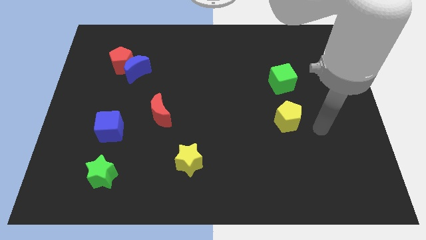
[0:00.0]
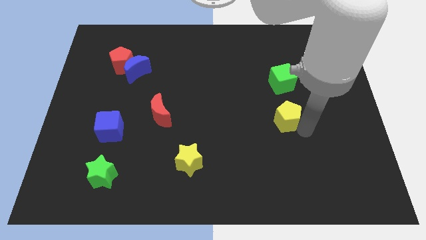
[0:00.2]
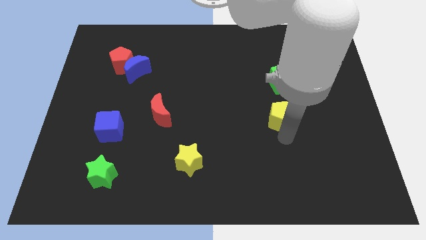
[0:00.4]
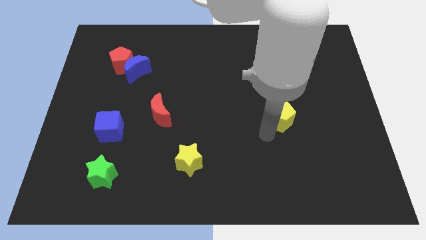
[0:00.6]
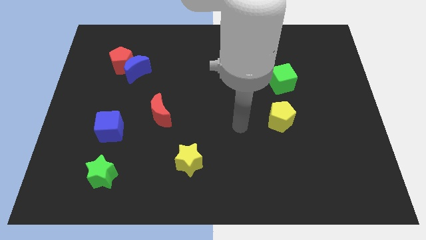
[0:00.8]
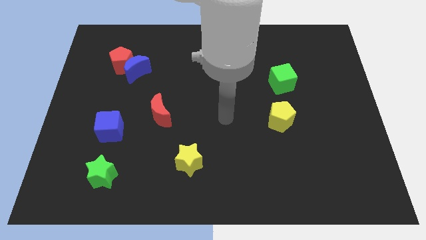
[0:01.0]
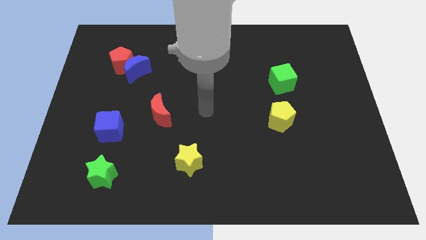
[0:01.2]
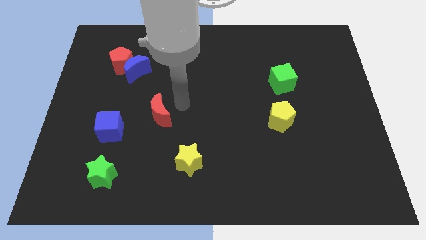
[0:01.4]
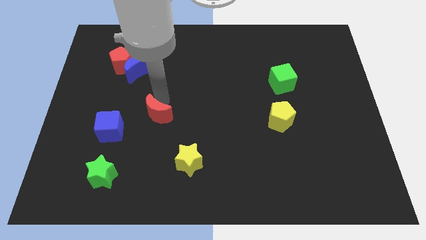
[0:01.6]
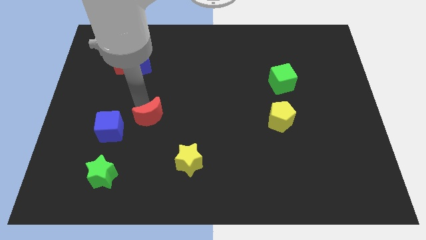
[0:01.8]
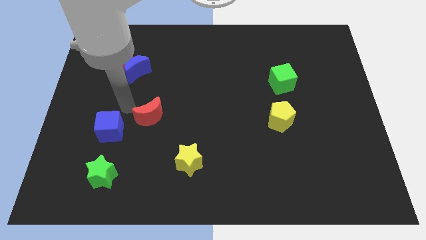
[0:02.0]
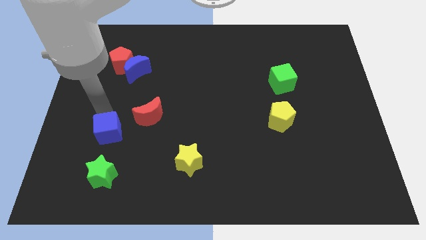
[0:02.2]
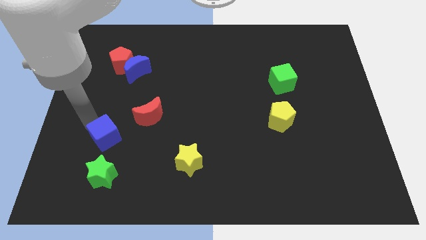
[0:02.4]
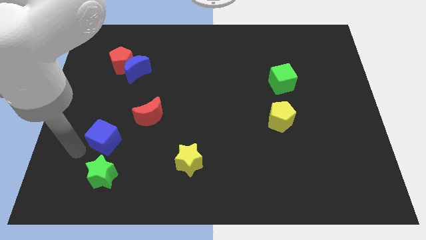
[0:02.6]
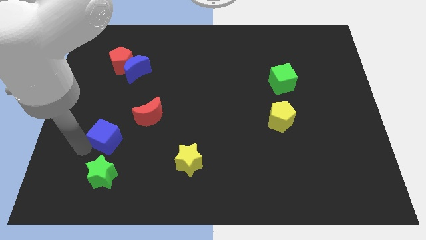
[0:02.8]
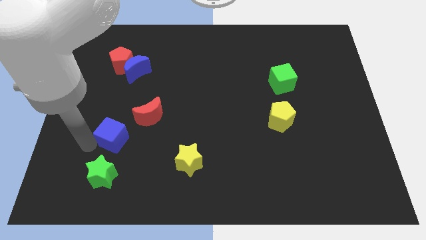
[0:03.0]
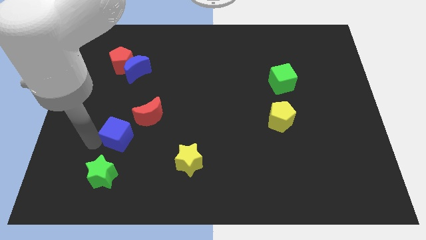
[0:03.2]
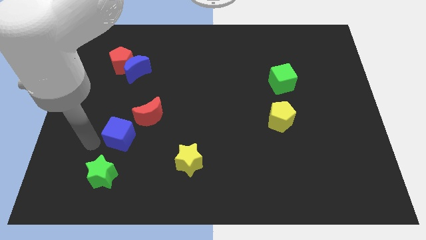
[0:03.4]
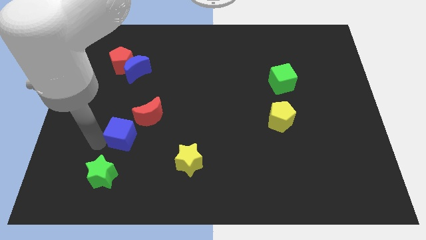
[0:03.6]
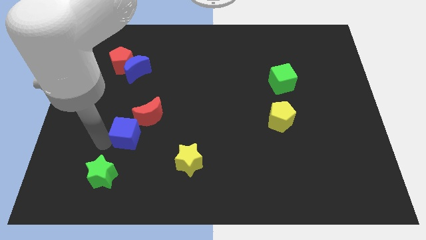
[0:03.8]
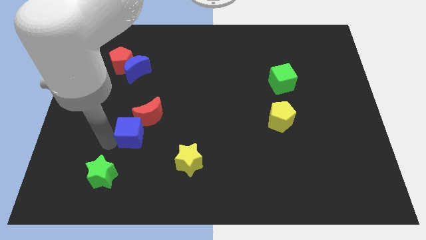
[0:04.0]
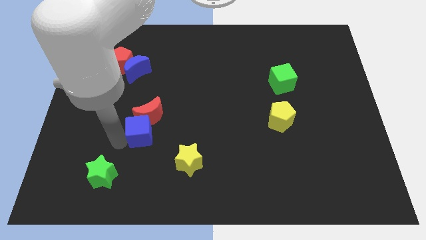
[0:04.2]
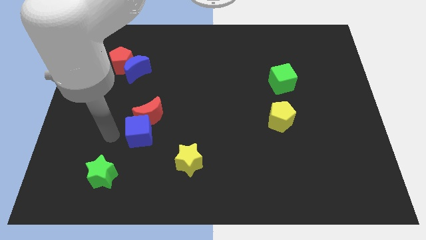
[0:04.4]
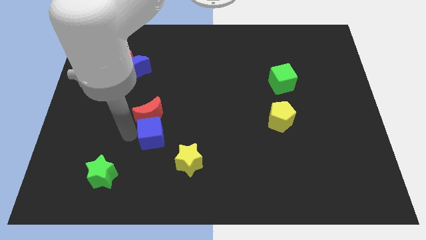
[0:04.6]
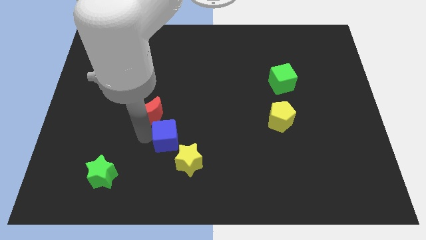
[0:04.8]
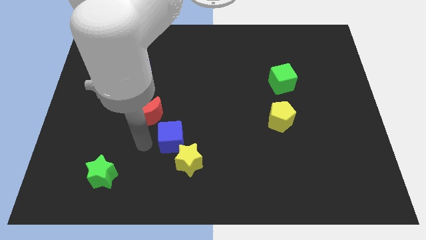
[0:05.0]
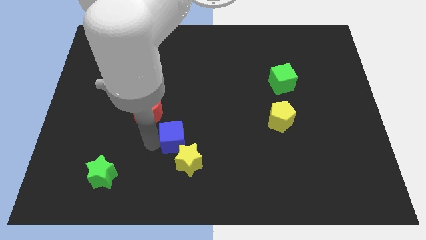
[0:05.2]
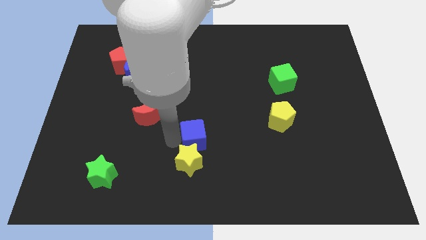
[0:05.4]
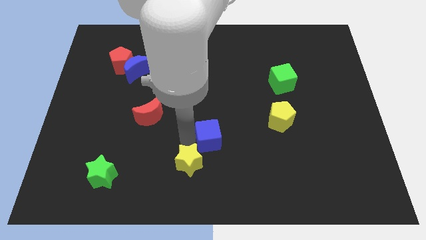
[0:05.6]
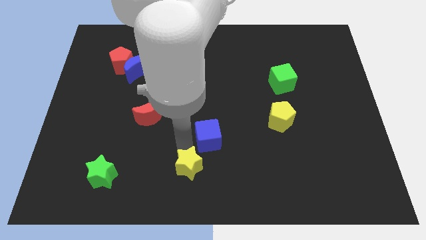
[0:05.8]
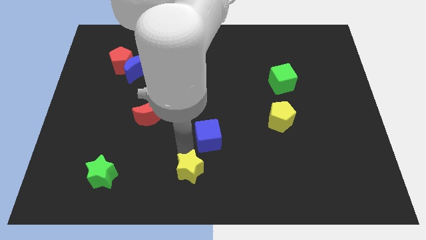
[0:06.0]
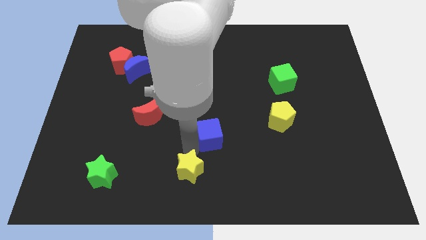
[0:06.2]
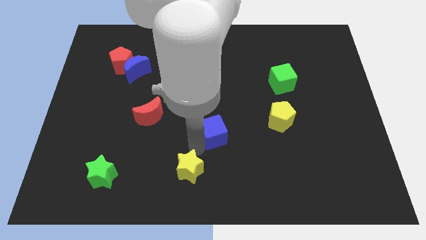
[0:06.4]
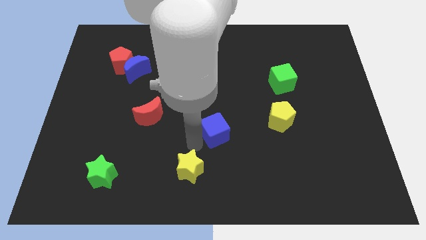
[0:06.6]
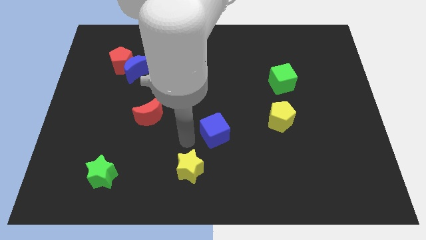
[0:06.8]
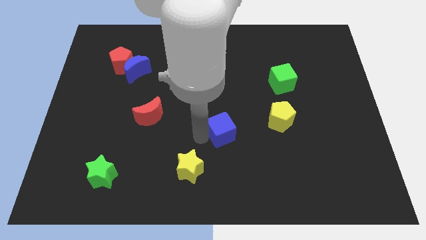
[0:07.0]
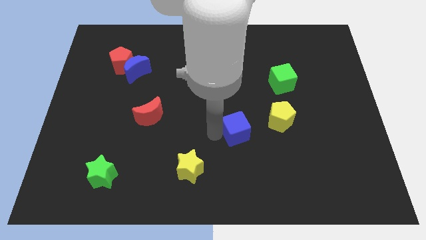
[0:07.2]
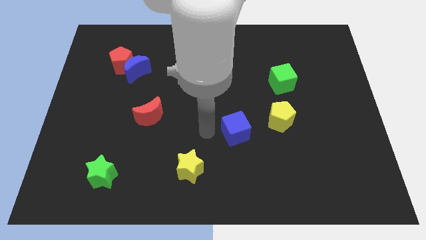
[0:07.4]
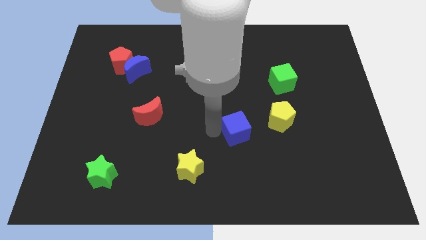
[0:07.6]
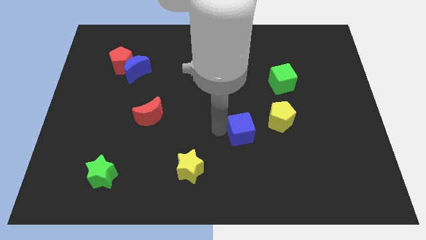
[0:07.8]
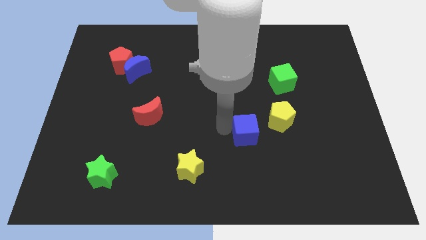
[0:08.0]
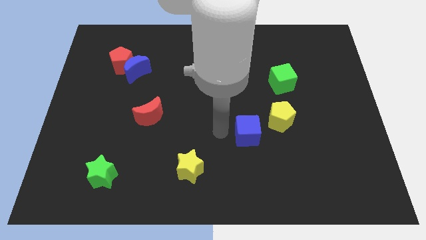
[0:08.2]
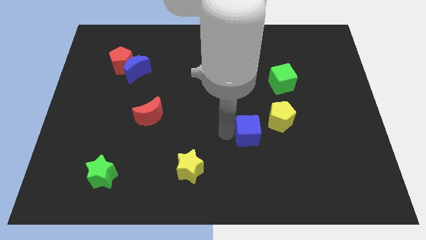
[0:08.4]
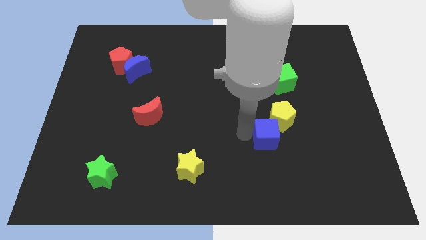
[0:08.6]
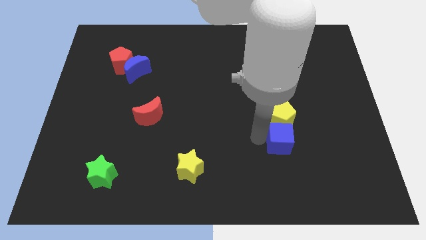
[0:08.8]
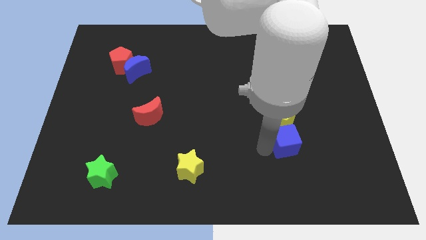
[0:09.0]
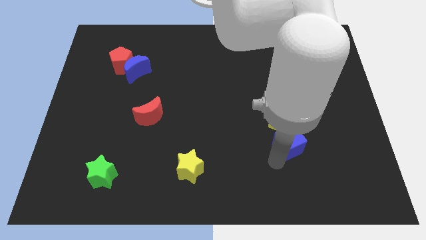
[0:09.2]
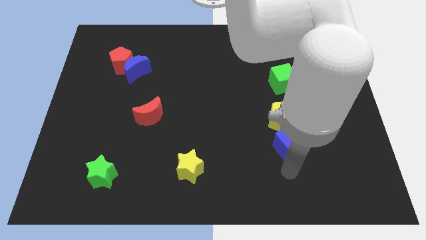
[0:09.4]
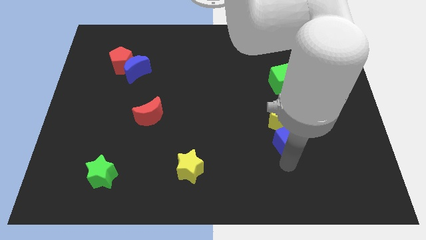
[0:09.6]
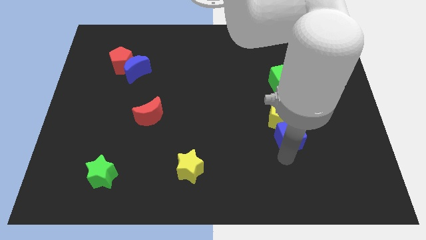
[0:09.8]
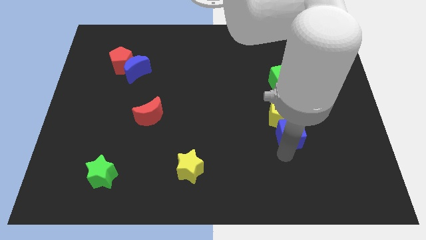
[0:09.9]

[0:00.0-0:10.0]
put the blue cube to the bottom side of the green cube

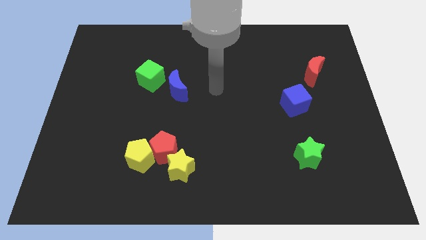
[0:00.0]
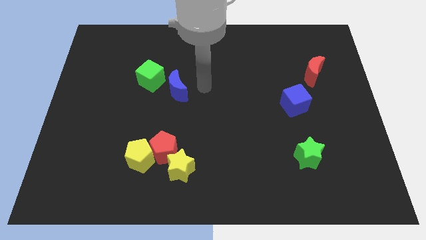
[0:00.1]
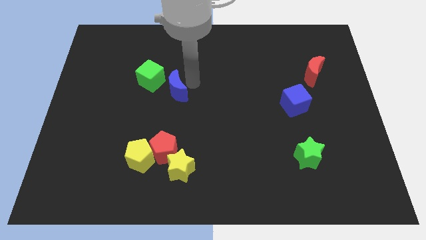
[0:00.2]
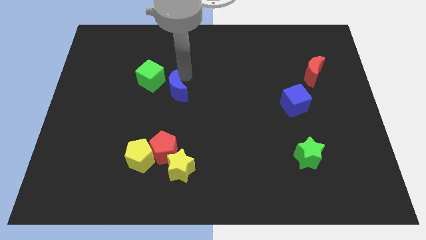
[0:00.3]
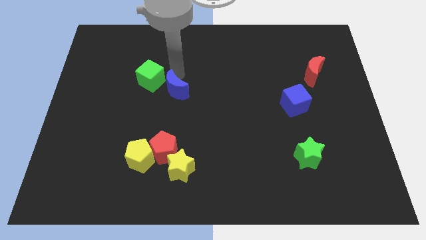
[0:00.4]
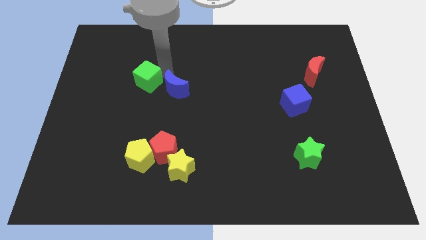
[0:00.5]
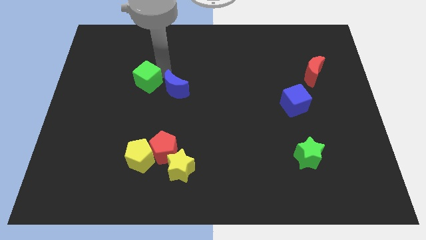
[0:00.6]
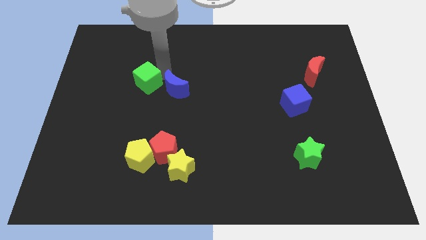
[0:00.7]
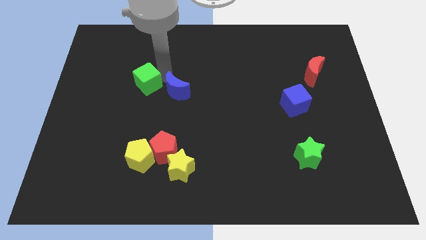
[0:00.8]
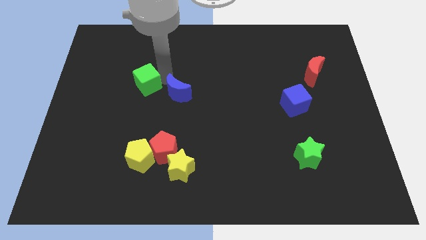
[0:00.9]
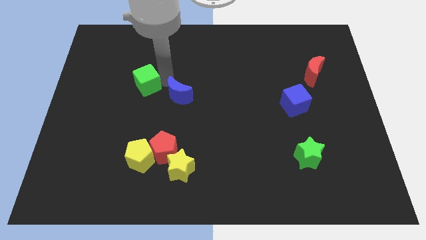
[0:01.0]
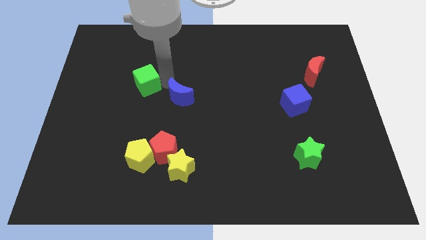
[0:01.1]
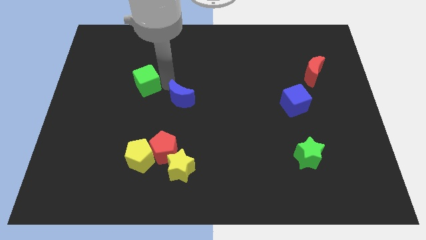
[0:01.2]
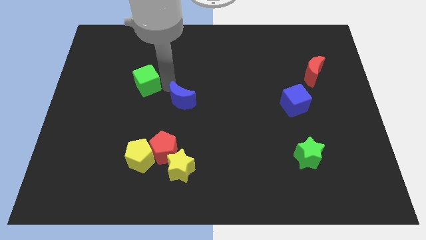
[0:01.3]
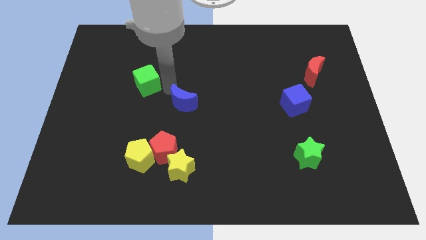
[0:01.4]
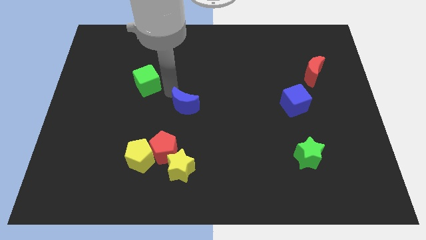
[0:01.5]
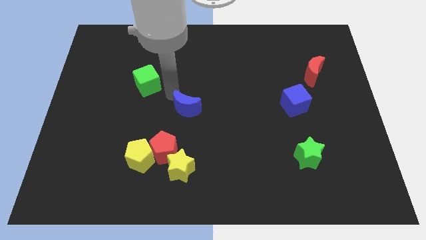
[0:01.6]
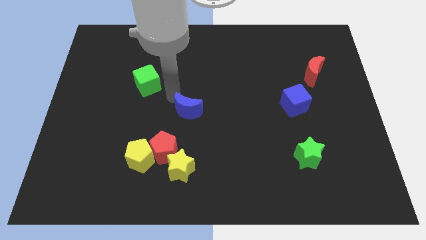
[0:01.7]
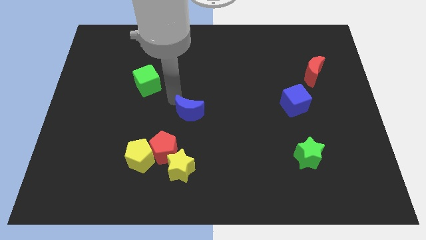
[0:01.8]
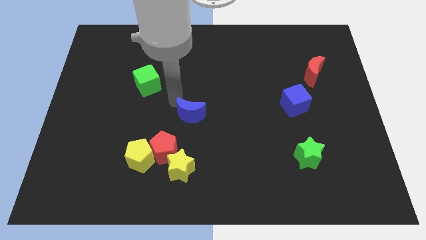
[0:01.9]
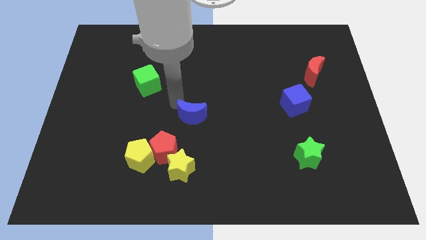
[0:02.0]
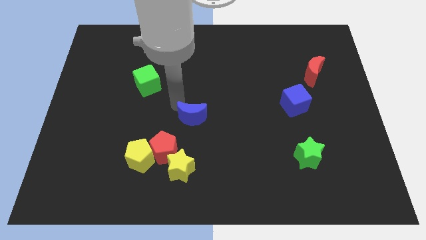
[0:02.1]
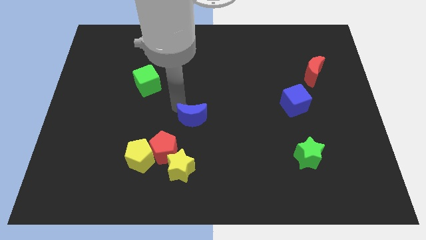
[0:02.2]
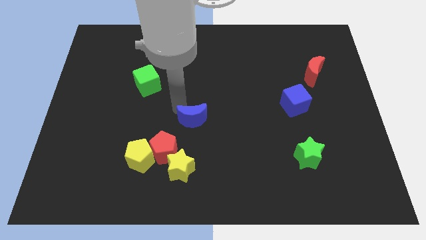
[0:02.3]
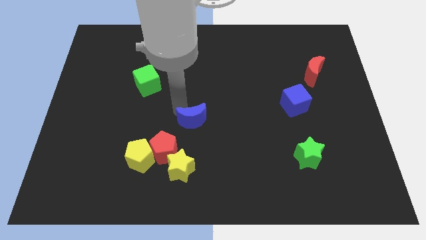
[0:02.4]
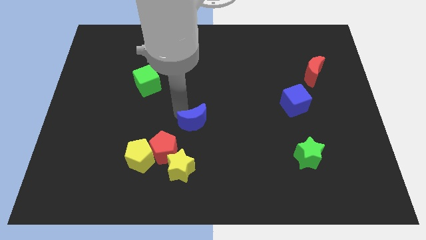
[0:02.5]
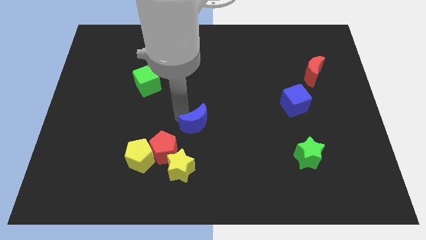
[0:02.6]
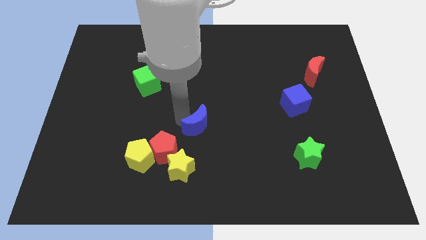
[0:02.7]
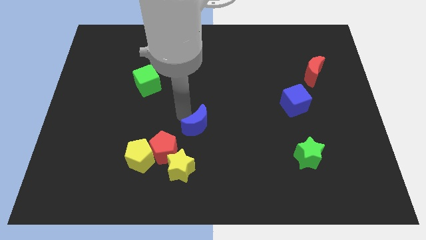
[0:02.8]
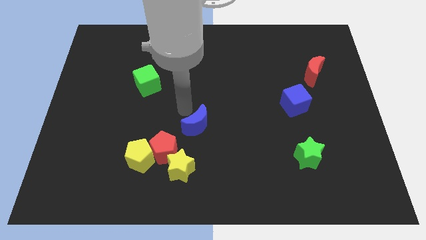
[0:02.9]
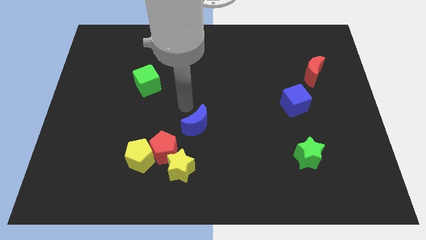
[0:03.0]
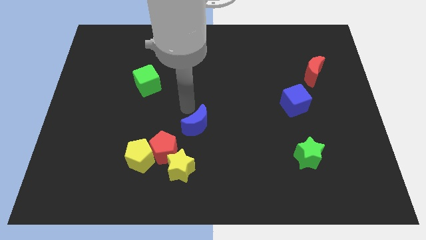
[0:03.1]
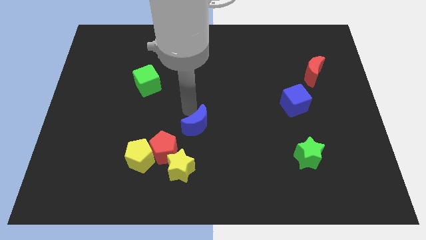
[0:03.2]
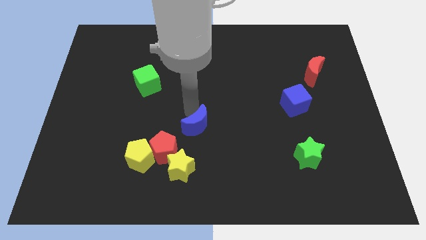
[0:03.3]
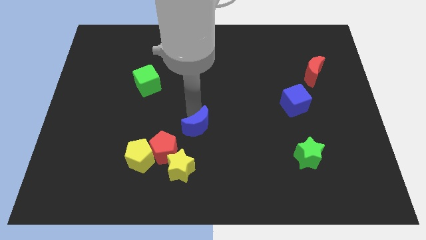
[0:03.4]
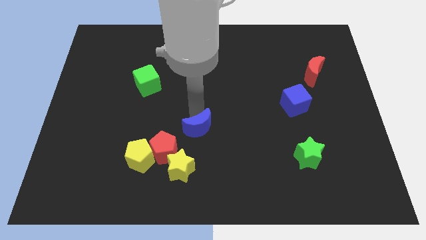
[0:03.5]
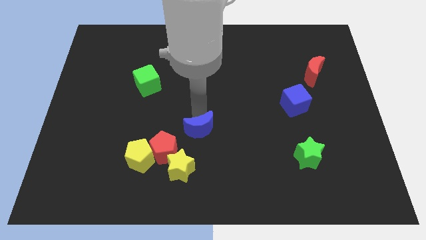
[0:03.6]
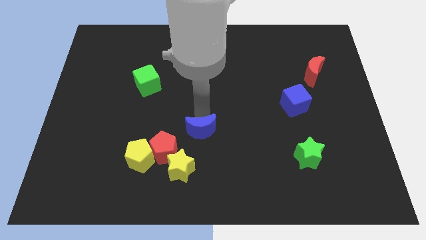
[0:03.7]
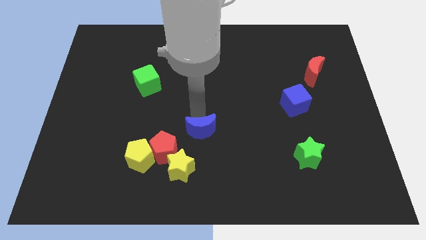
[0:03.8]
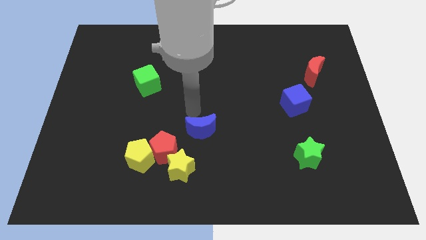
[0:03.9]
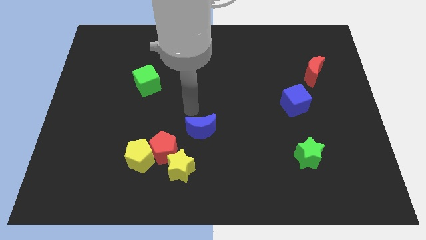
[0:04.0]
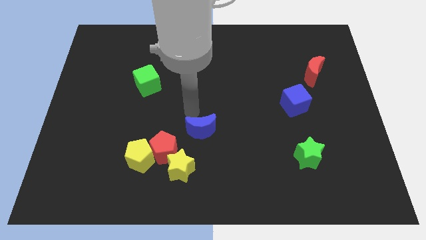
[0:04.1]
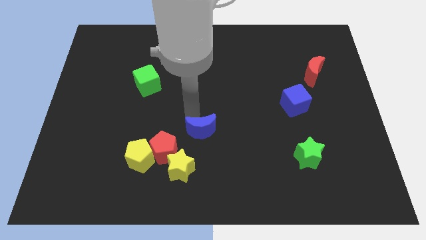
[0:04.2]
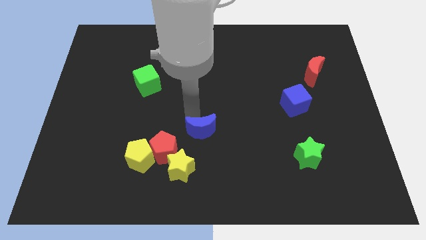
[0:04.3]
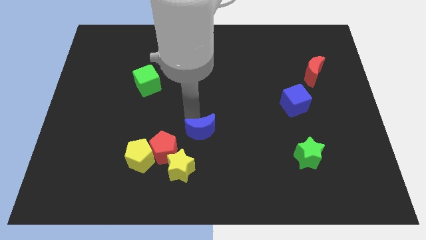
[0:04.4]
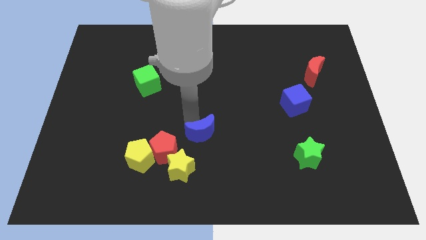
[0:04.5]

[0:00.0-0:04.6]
push the blue moon right of the red pentagon
